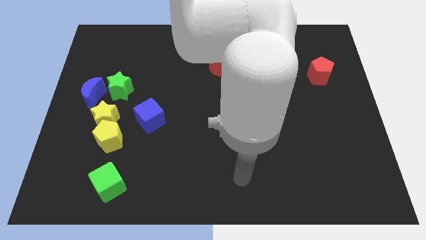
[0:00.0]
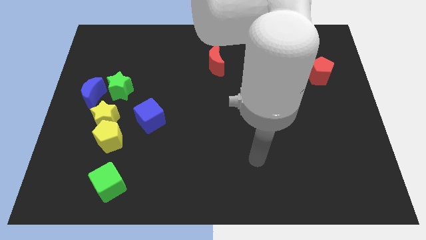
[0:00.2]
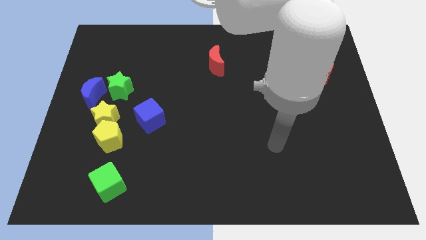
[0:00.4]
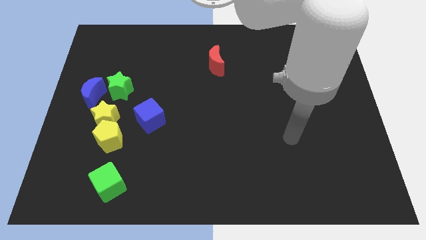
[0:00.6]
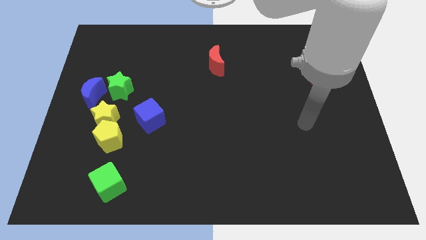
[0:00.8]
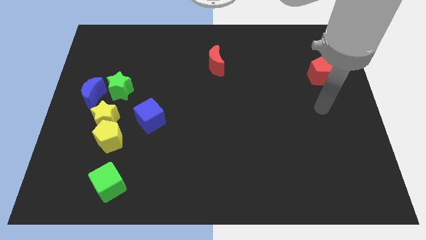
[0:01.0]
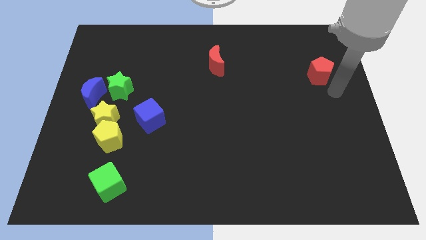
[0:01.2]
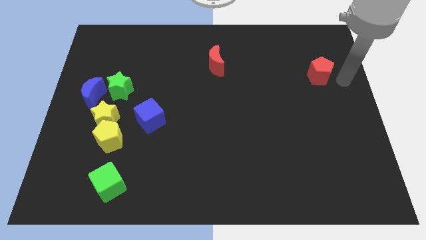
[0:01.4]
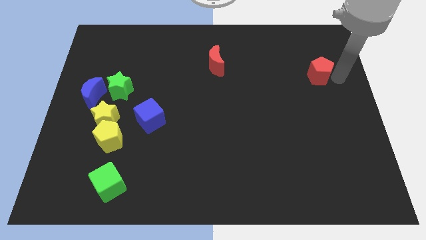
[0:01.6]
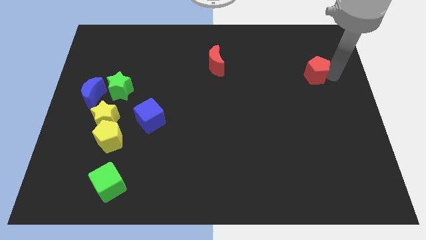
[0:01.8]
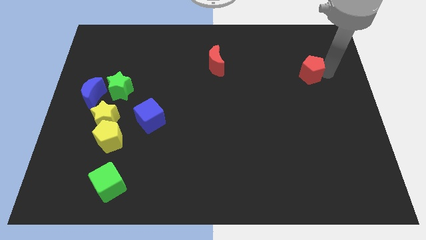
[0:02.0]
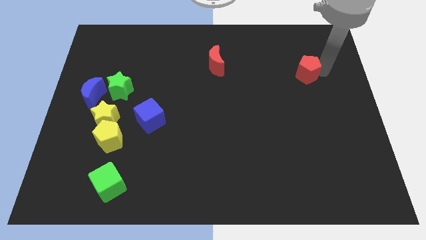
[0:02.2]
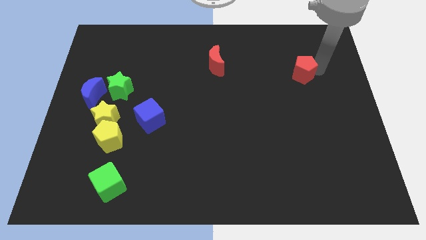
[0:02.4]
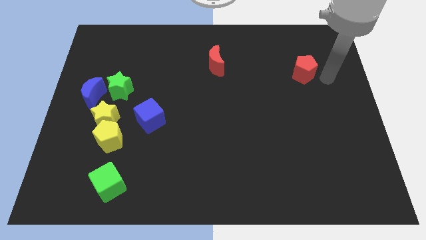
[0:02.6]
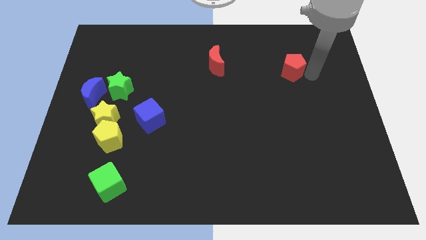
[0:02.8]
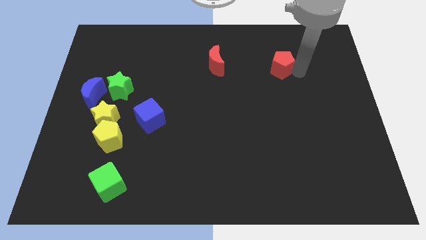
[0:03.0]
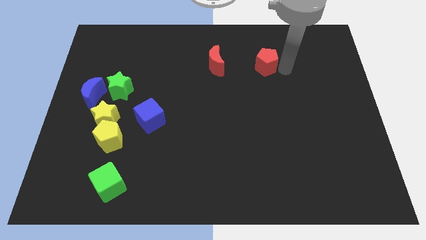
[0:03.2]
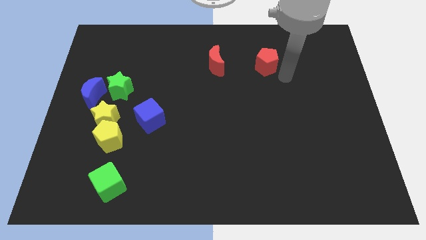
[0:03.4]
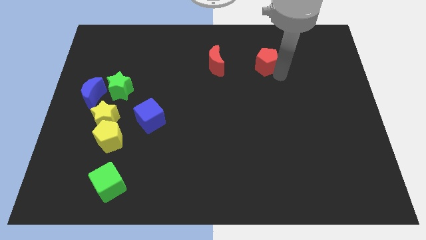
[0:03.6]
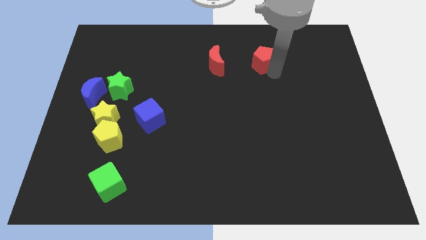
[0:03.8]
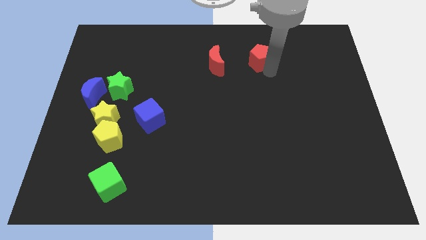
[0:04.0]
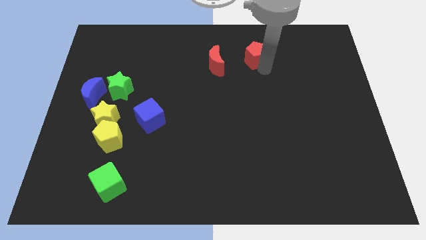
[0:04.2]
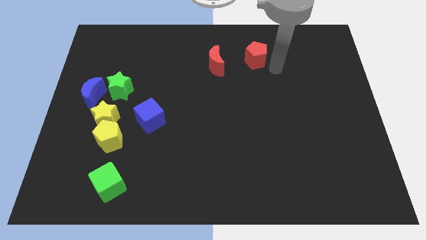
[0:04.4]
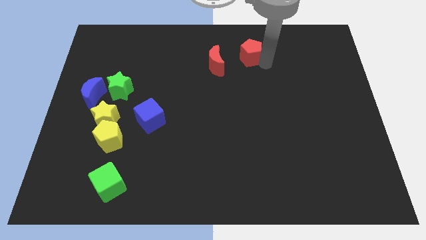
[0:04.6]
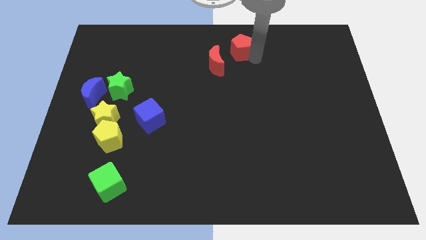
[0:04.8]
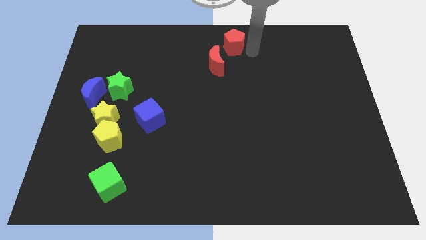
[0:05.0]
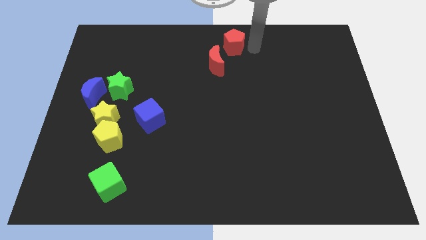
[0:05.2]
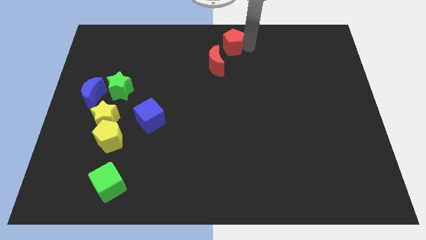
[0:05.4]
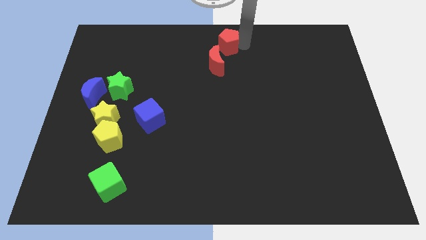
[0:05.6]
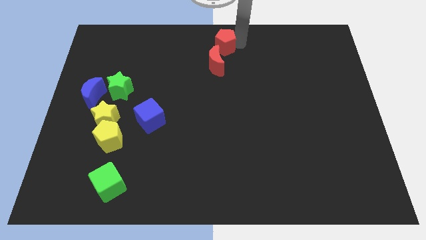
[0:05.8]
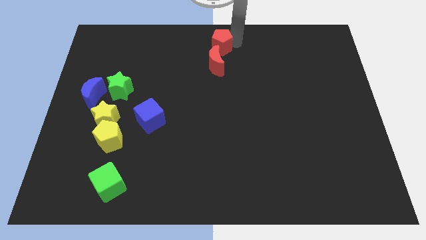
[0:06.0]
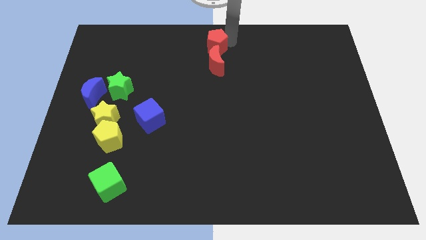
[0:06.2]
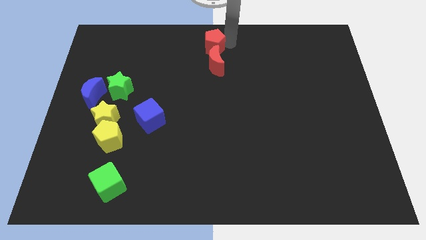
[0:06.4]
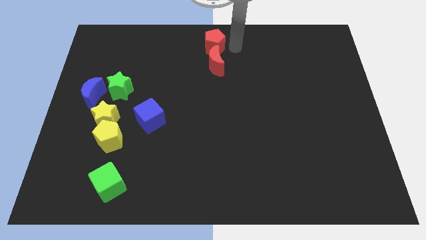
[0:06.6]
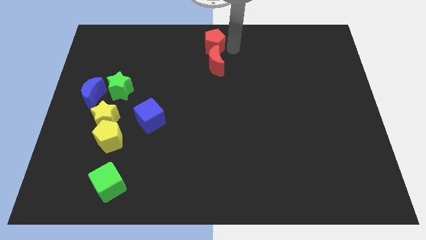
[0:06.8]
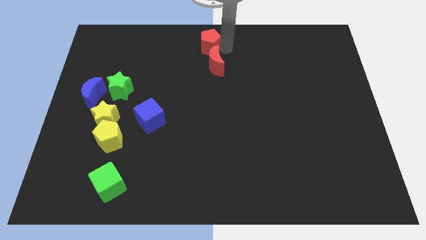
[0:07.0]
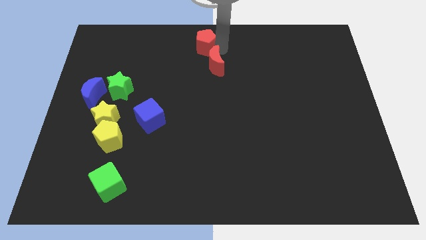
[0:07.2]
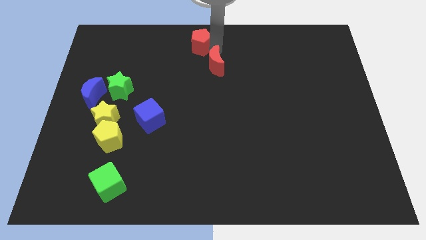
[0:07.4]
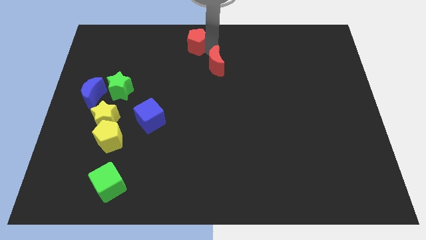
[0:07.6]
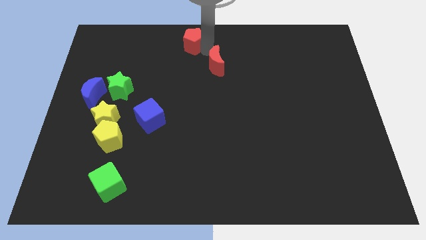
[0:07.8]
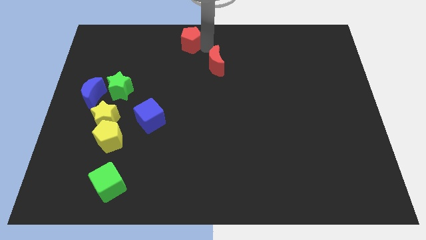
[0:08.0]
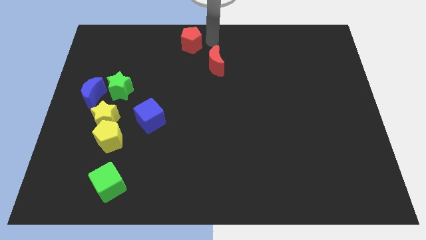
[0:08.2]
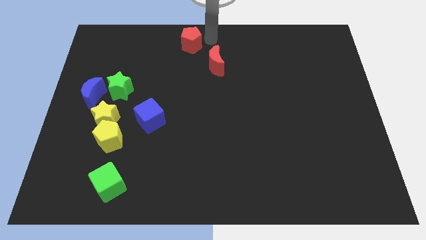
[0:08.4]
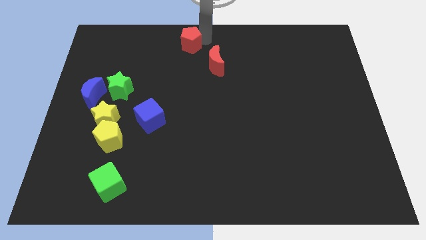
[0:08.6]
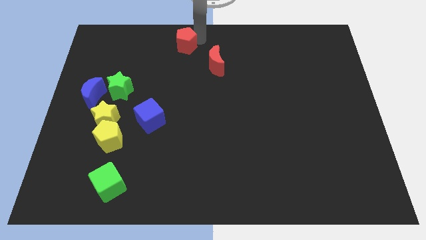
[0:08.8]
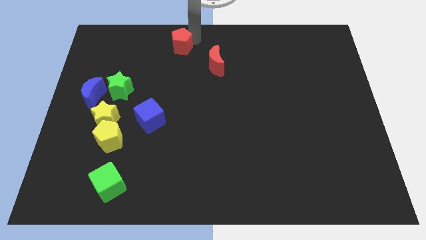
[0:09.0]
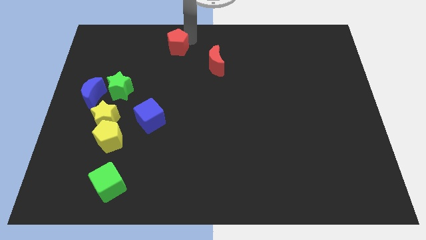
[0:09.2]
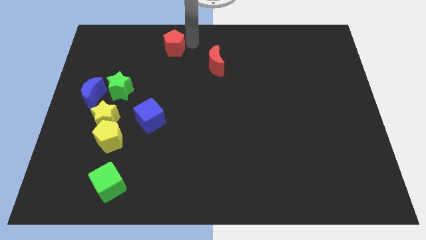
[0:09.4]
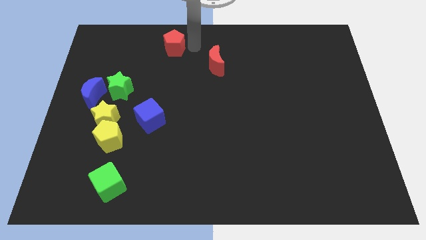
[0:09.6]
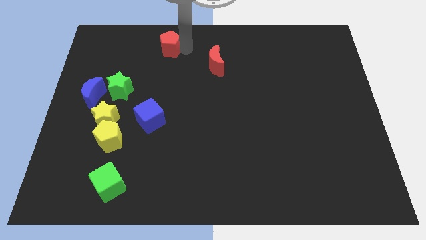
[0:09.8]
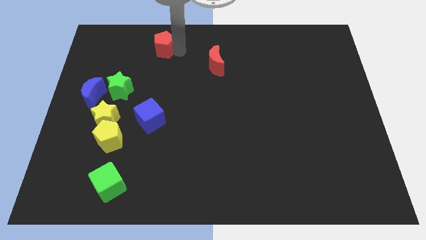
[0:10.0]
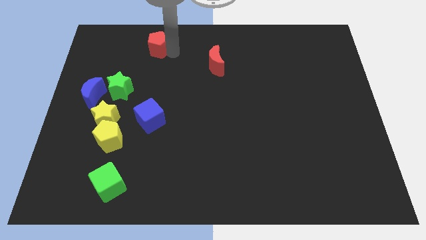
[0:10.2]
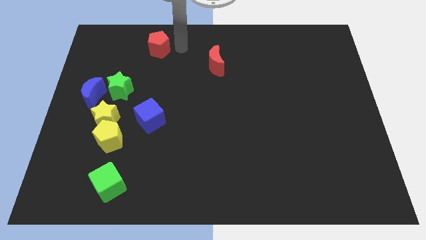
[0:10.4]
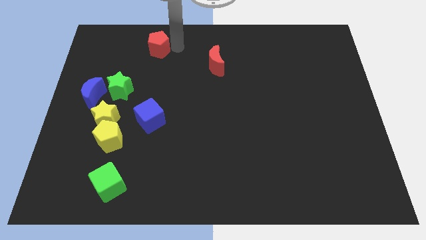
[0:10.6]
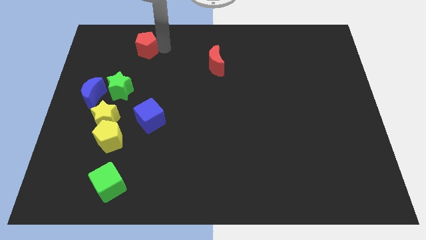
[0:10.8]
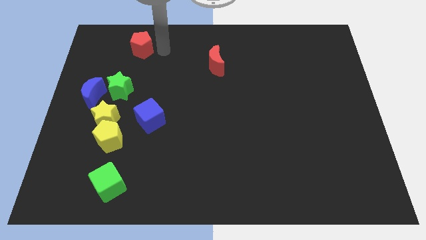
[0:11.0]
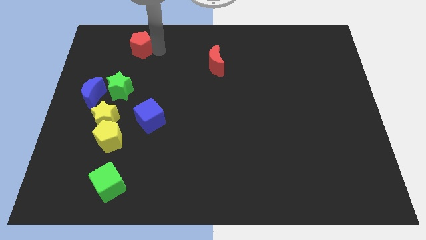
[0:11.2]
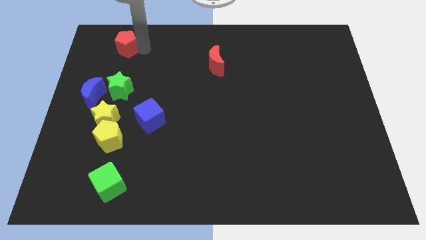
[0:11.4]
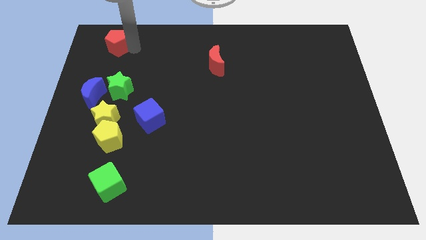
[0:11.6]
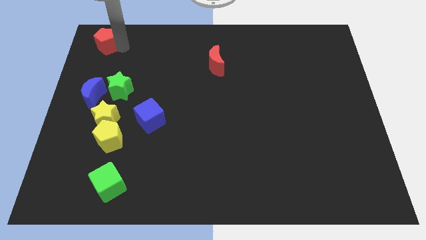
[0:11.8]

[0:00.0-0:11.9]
put the red pentagon to the top left

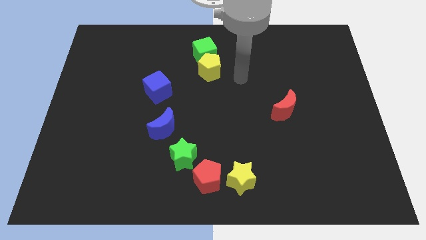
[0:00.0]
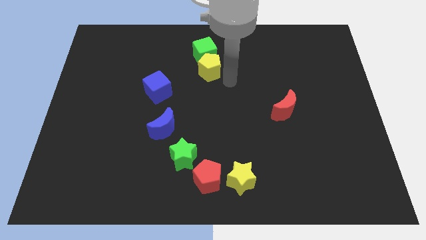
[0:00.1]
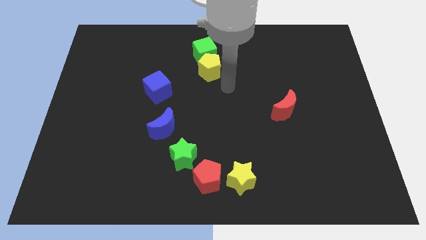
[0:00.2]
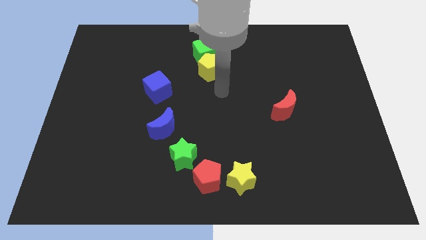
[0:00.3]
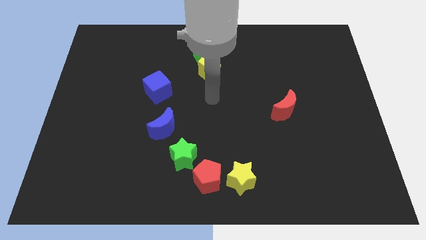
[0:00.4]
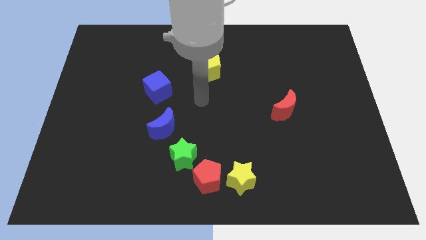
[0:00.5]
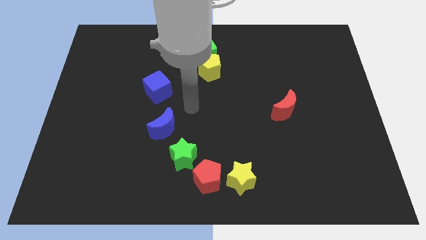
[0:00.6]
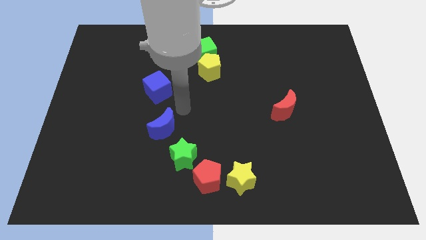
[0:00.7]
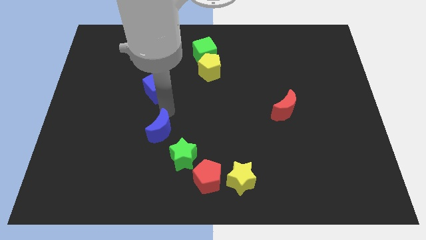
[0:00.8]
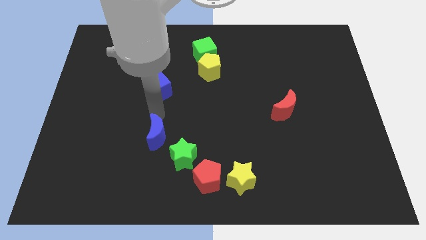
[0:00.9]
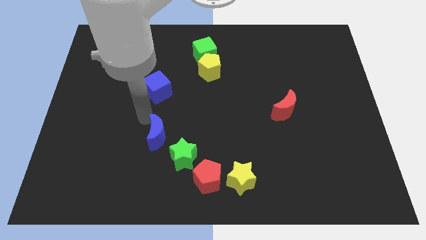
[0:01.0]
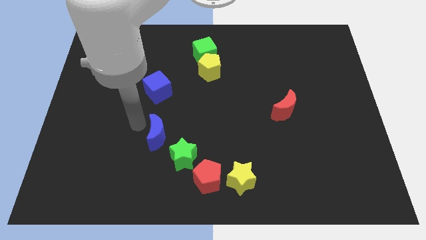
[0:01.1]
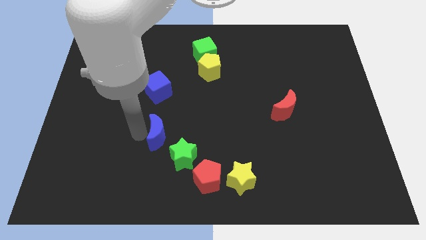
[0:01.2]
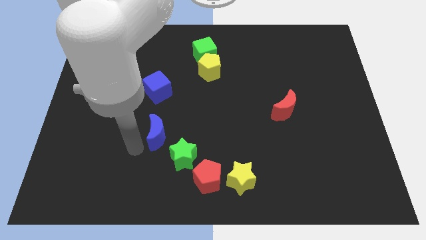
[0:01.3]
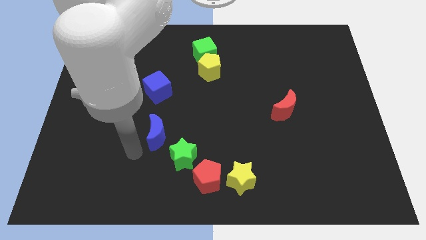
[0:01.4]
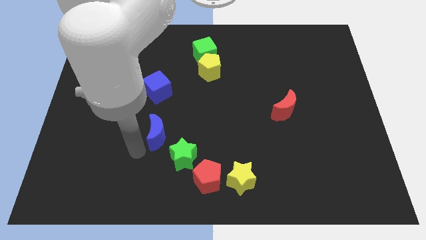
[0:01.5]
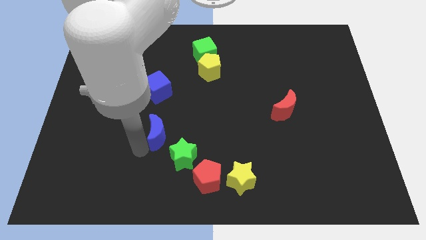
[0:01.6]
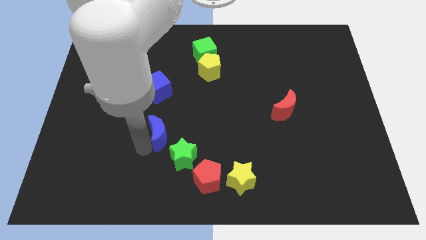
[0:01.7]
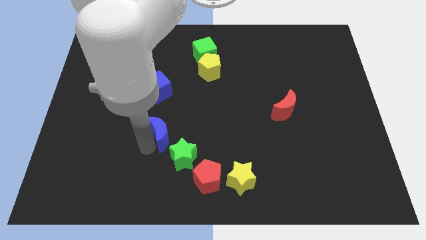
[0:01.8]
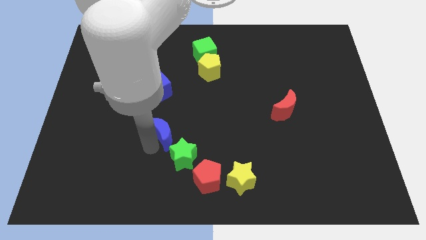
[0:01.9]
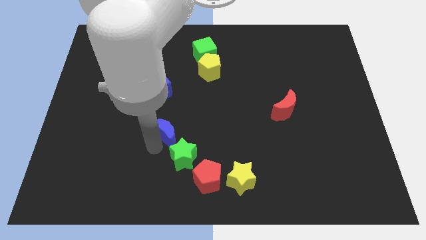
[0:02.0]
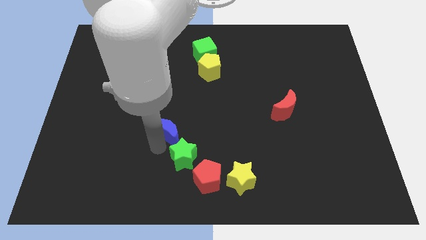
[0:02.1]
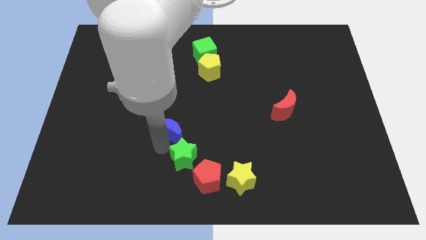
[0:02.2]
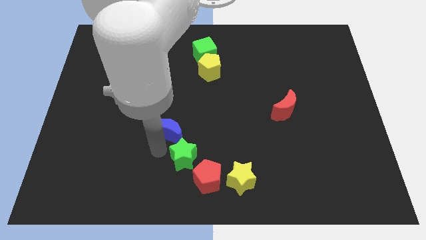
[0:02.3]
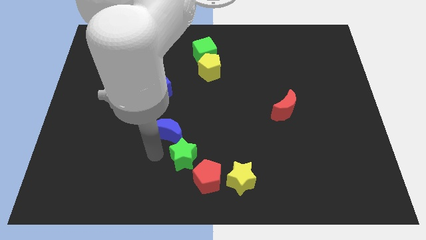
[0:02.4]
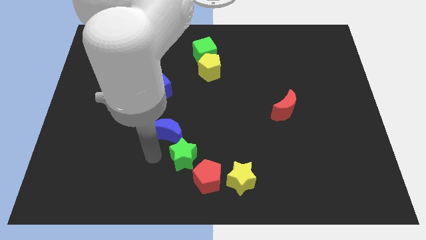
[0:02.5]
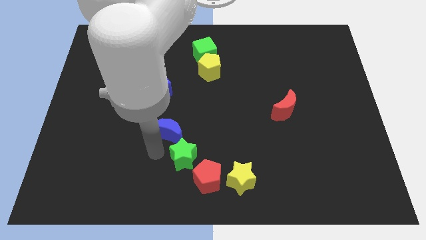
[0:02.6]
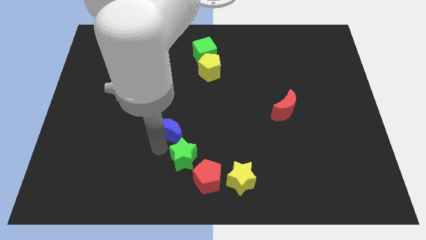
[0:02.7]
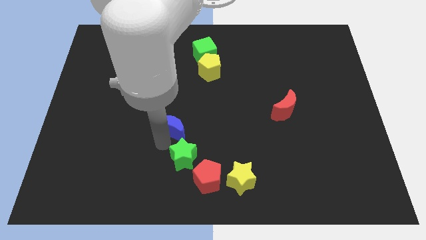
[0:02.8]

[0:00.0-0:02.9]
push the blue moon to the middle
